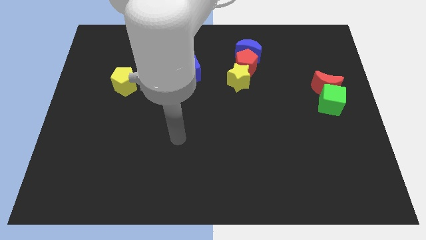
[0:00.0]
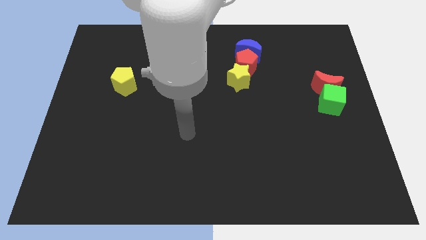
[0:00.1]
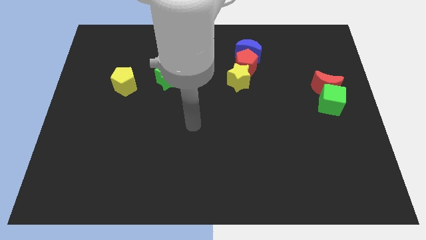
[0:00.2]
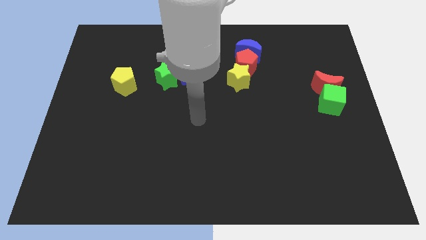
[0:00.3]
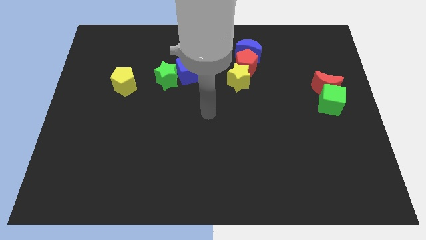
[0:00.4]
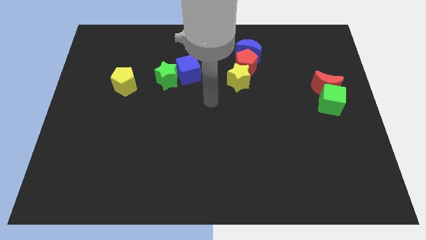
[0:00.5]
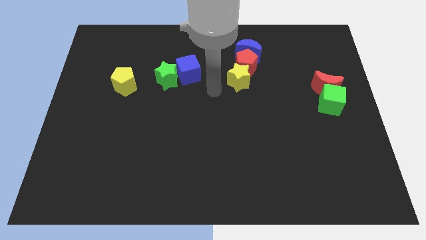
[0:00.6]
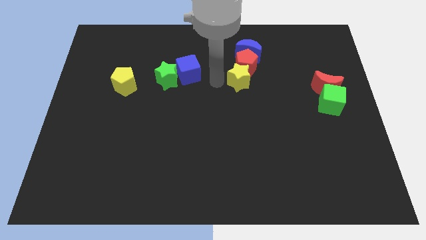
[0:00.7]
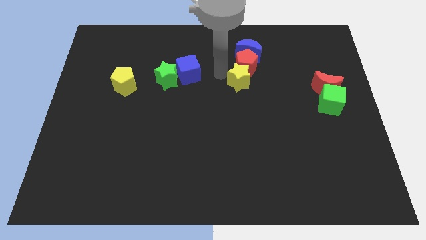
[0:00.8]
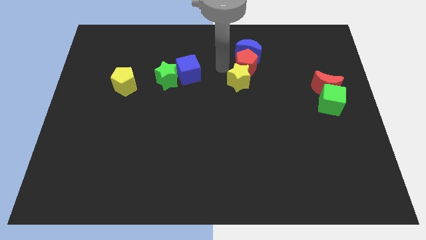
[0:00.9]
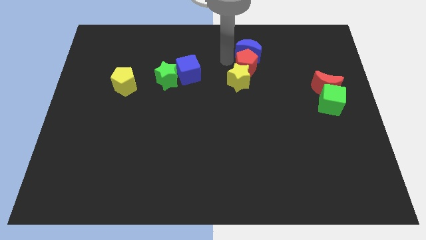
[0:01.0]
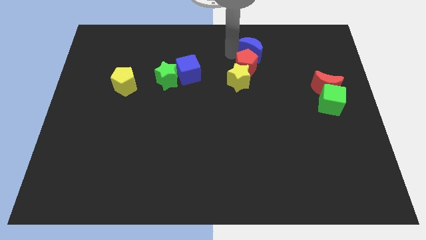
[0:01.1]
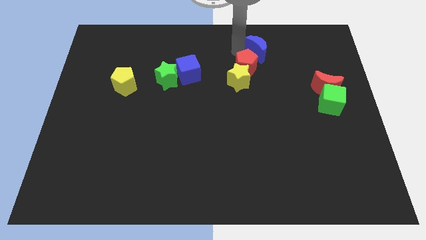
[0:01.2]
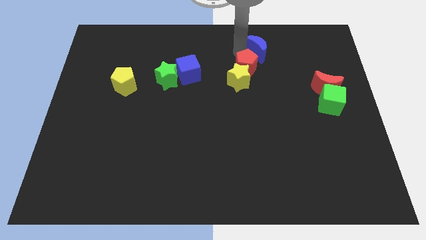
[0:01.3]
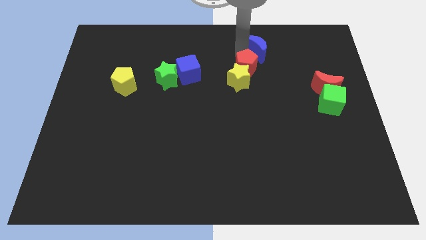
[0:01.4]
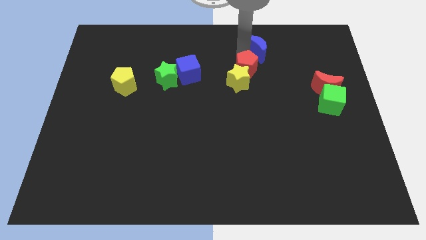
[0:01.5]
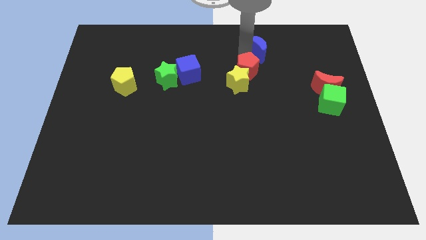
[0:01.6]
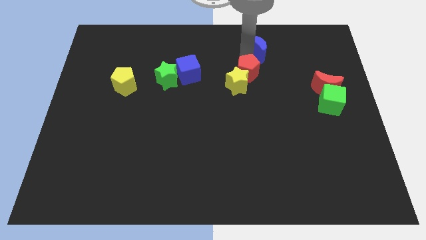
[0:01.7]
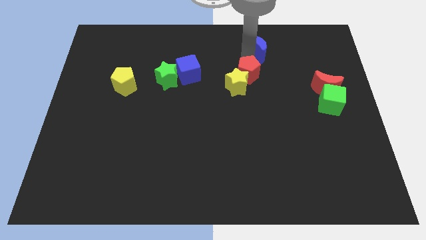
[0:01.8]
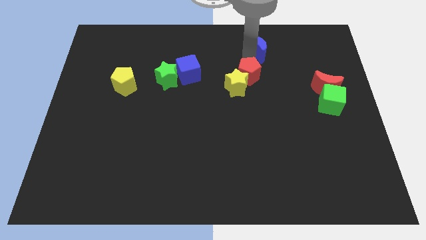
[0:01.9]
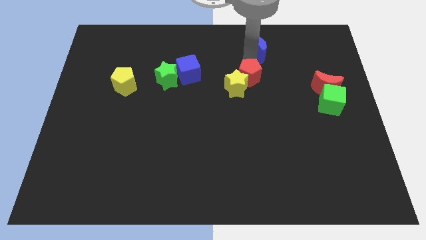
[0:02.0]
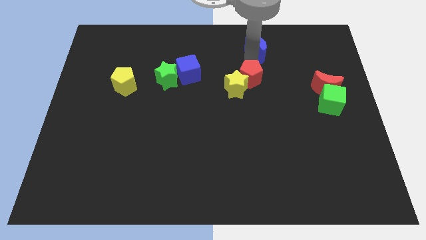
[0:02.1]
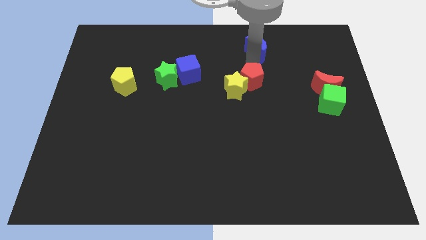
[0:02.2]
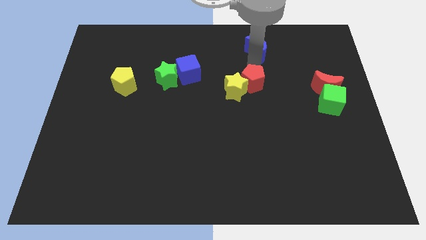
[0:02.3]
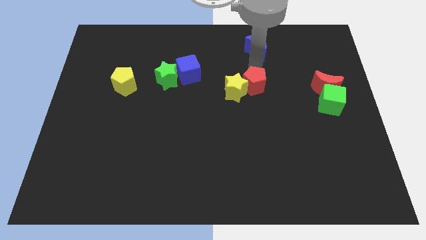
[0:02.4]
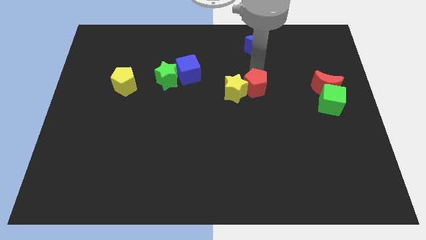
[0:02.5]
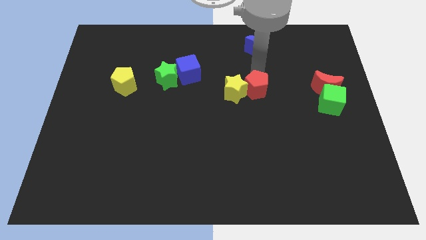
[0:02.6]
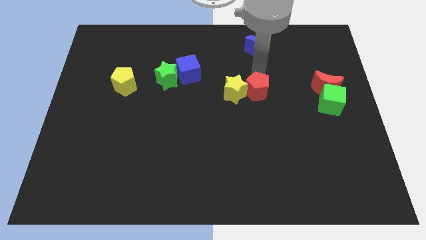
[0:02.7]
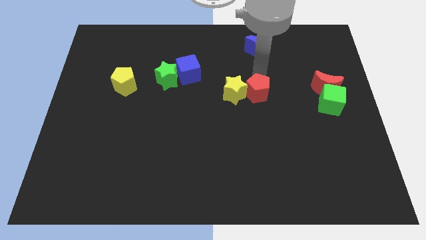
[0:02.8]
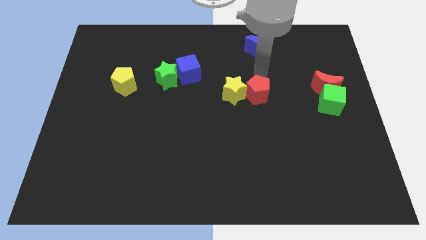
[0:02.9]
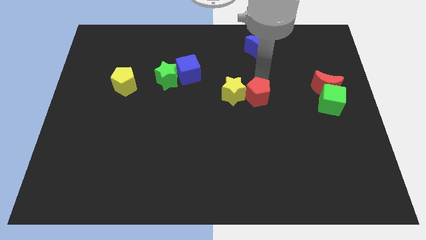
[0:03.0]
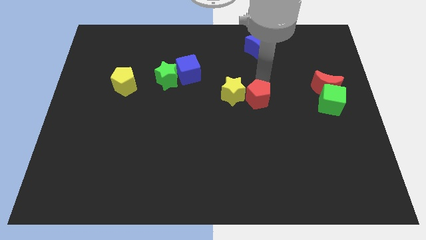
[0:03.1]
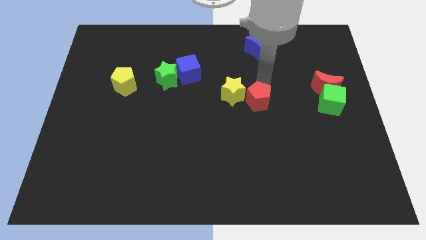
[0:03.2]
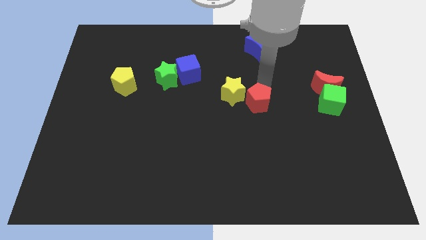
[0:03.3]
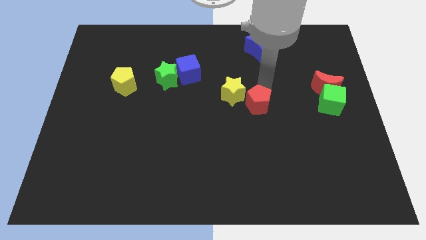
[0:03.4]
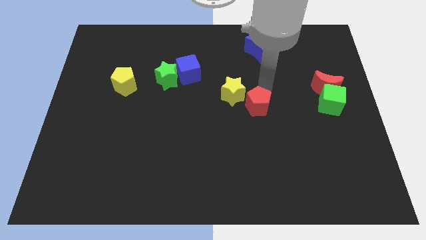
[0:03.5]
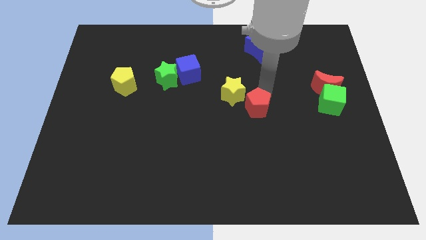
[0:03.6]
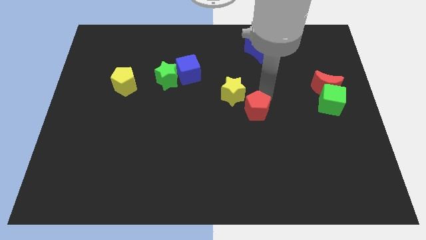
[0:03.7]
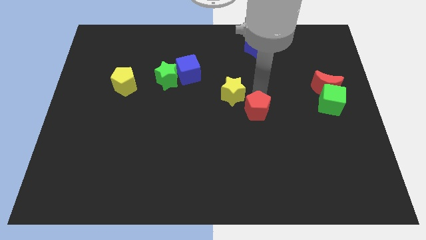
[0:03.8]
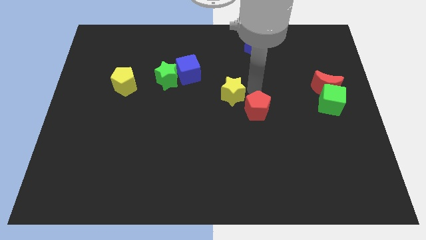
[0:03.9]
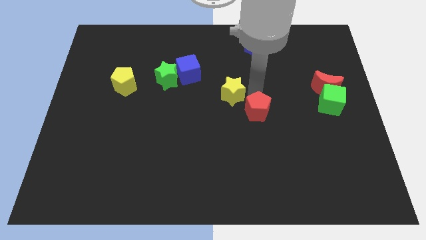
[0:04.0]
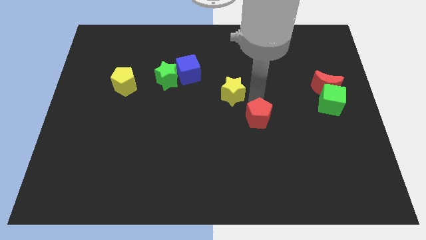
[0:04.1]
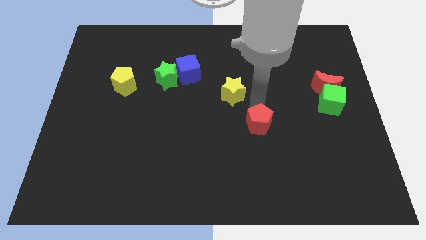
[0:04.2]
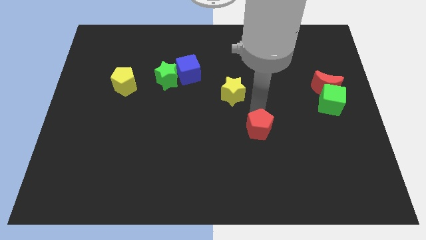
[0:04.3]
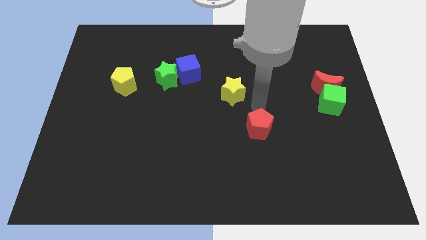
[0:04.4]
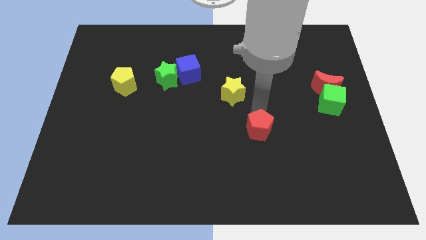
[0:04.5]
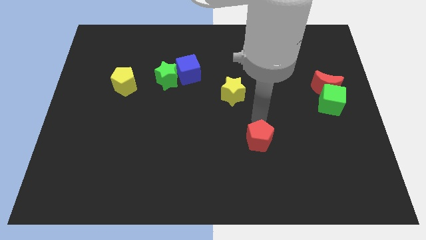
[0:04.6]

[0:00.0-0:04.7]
move the red pentagon downwards

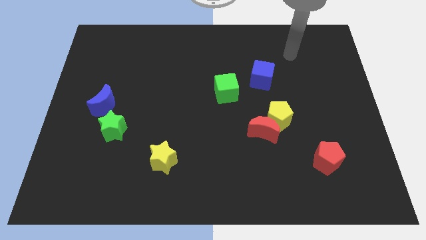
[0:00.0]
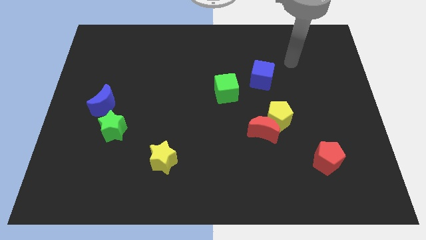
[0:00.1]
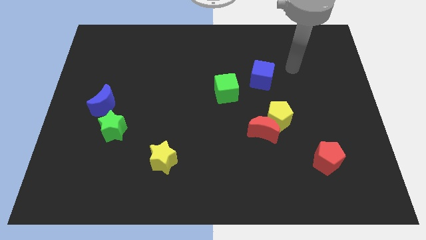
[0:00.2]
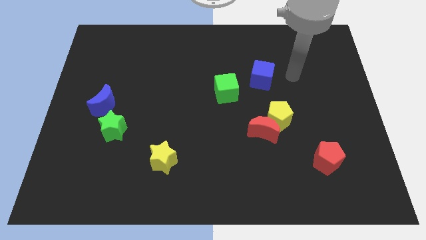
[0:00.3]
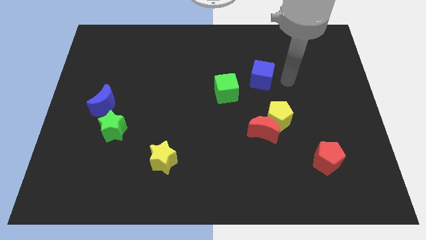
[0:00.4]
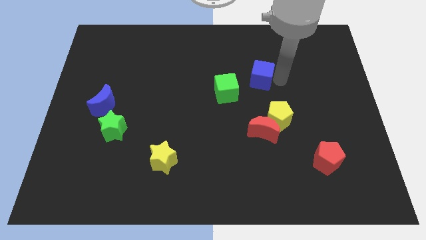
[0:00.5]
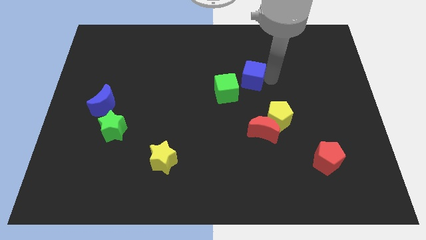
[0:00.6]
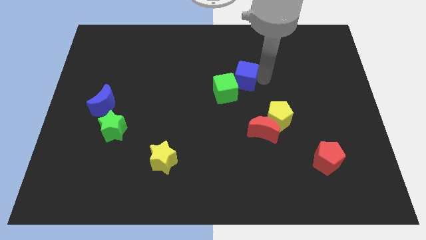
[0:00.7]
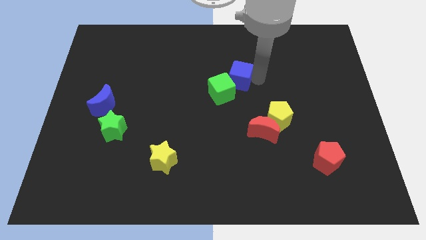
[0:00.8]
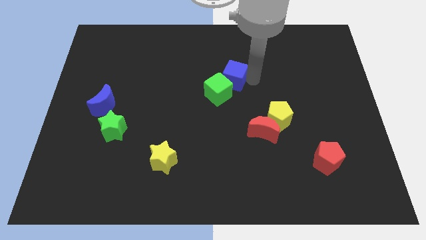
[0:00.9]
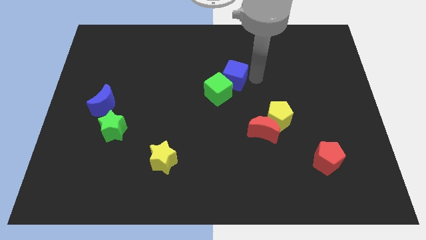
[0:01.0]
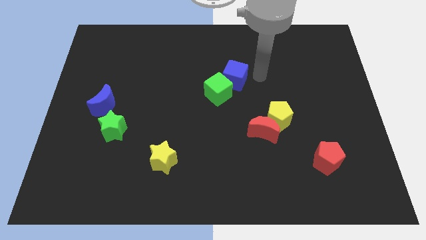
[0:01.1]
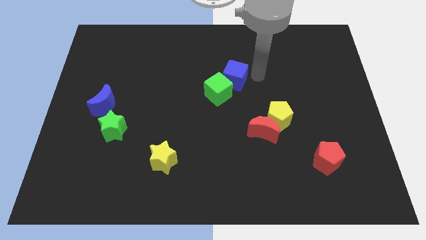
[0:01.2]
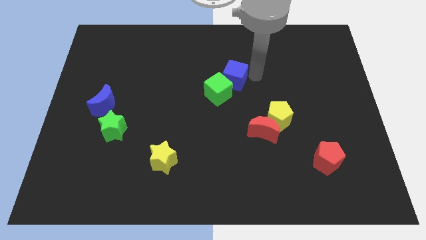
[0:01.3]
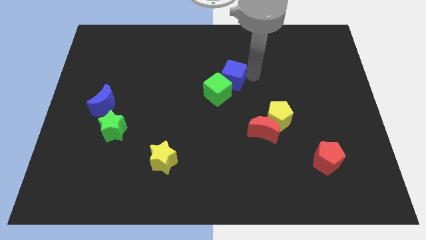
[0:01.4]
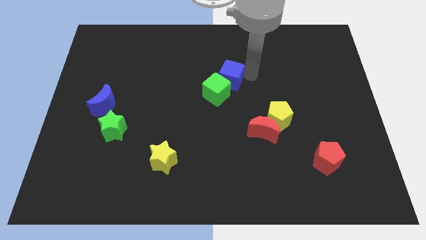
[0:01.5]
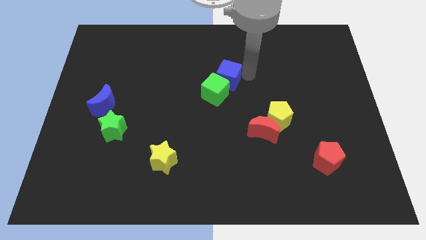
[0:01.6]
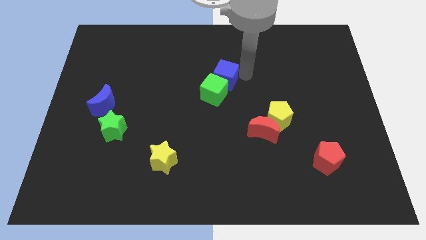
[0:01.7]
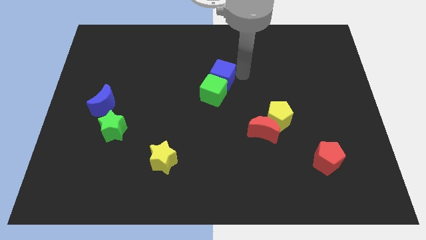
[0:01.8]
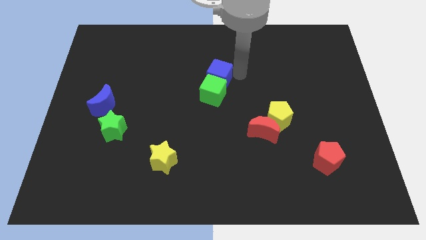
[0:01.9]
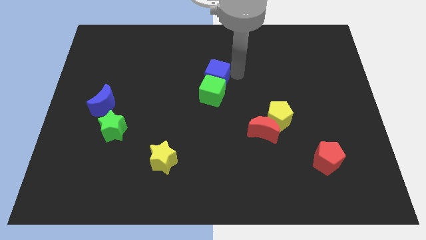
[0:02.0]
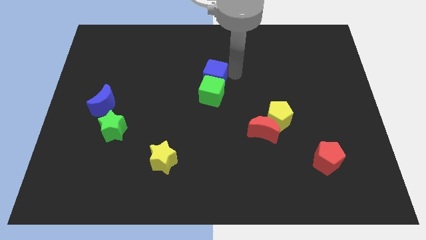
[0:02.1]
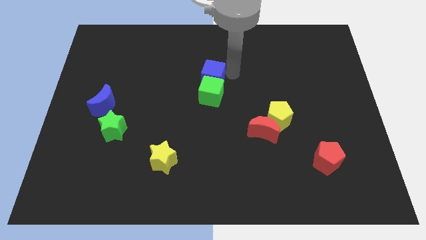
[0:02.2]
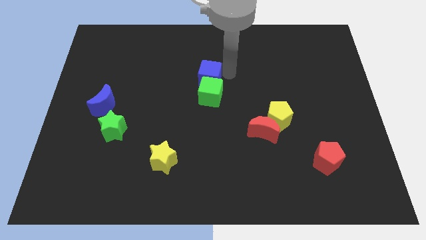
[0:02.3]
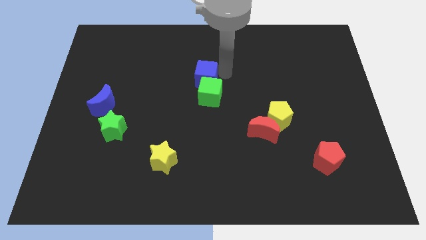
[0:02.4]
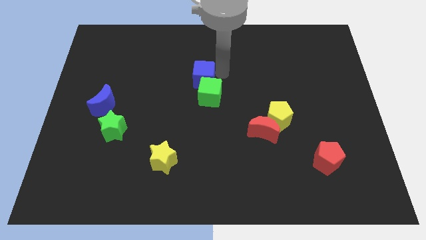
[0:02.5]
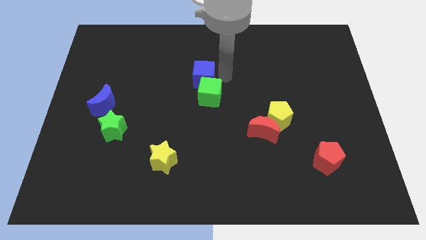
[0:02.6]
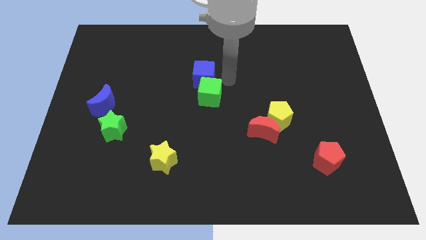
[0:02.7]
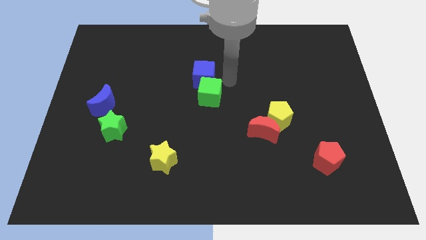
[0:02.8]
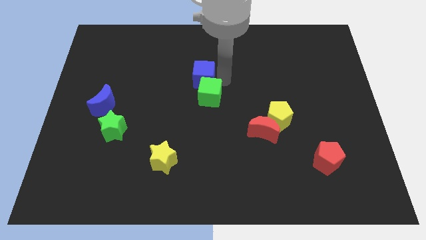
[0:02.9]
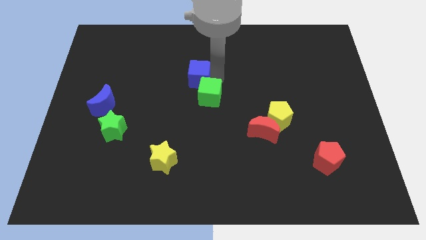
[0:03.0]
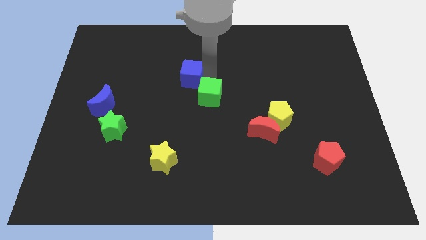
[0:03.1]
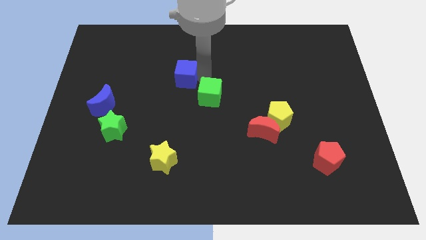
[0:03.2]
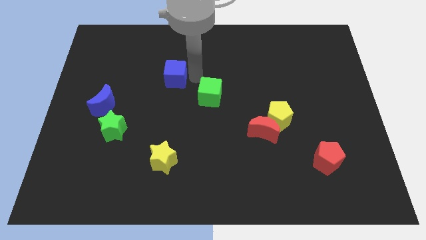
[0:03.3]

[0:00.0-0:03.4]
slide the blue cube to the left

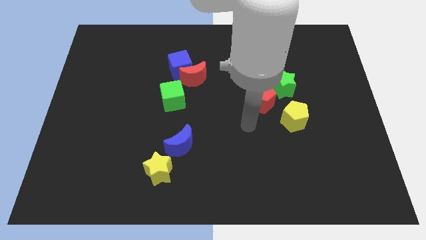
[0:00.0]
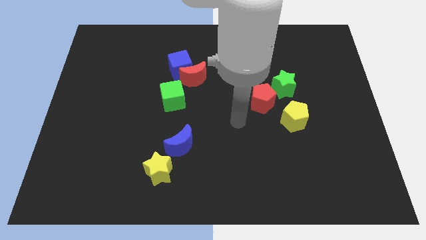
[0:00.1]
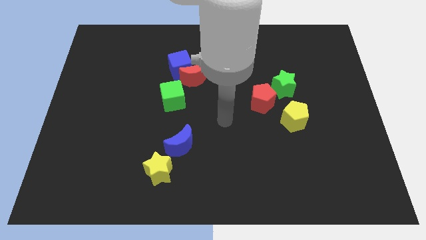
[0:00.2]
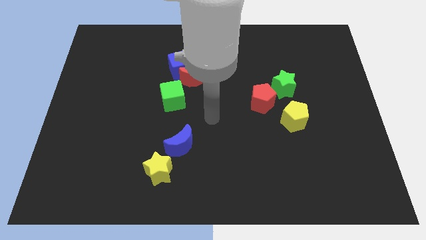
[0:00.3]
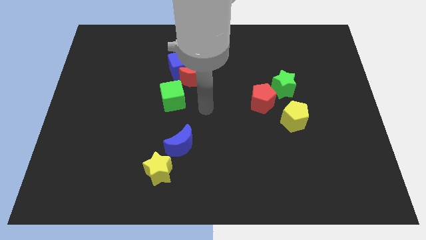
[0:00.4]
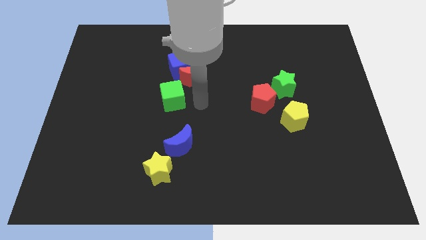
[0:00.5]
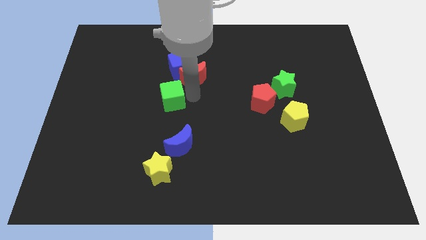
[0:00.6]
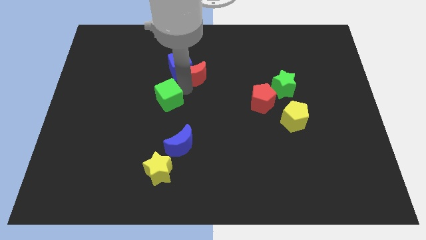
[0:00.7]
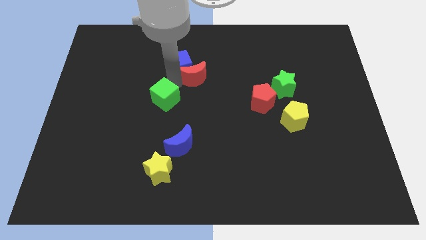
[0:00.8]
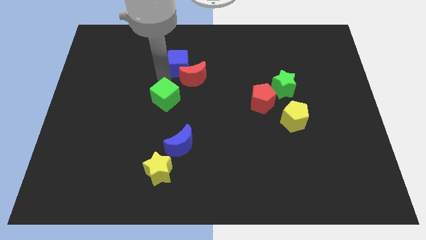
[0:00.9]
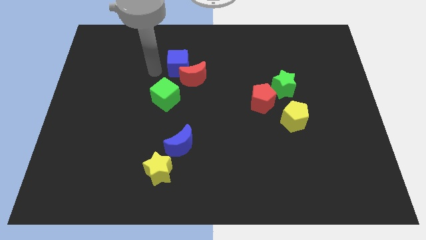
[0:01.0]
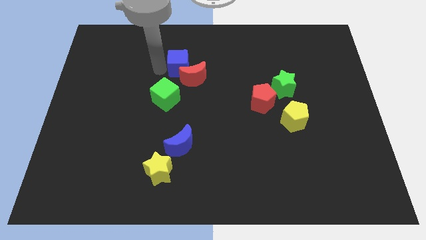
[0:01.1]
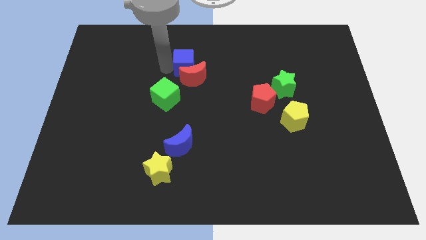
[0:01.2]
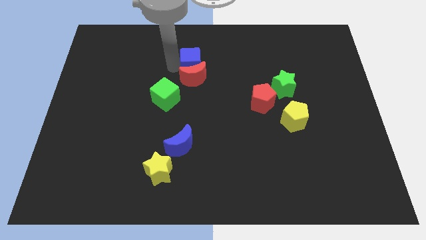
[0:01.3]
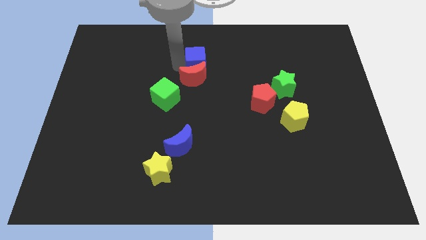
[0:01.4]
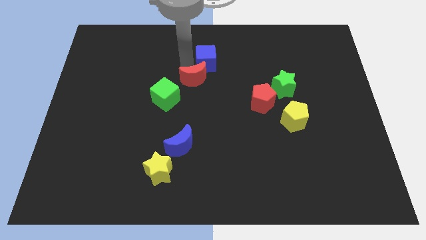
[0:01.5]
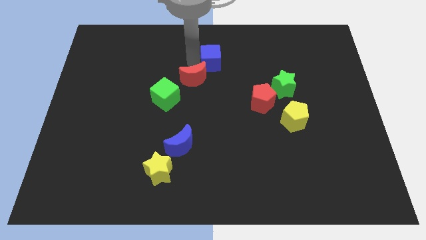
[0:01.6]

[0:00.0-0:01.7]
push the blue cube right a little bit
